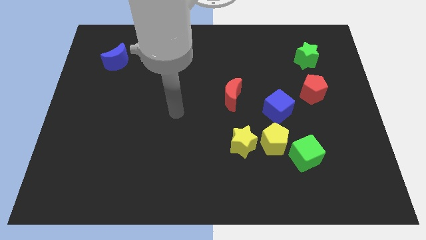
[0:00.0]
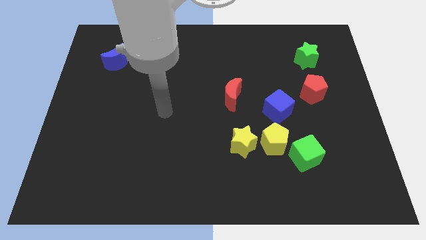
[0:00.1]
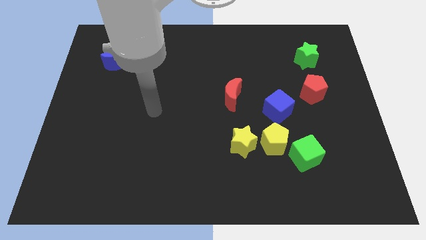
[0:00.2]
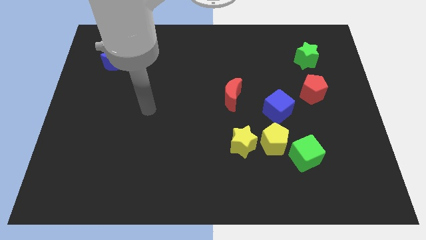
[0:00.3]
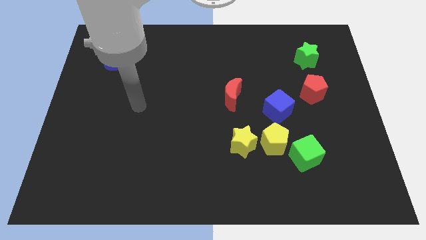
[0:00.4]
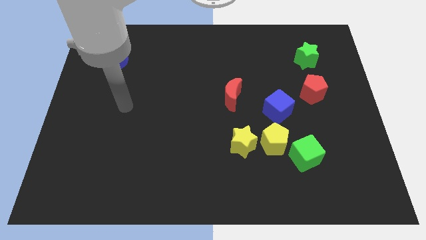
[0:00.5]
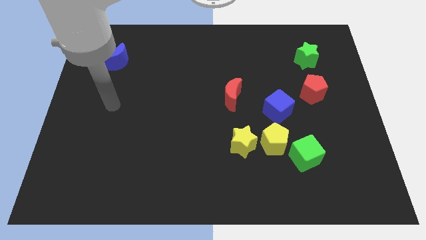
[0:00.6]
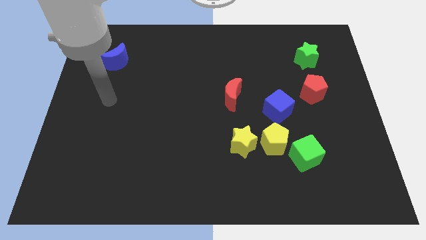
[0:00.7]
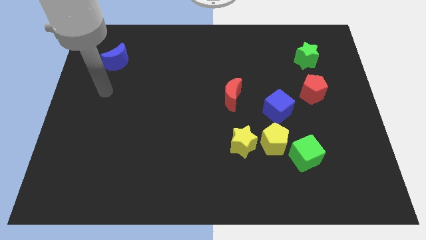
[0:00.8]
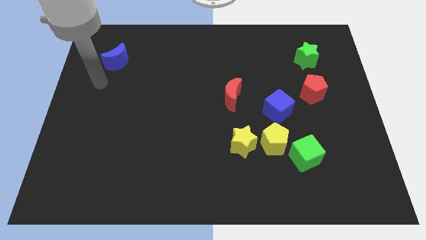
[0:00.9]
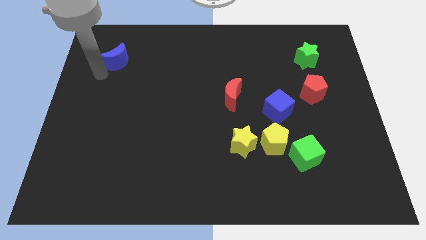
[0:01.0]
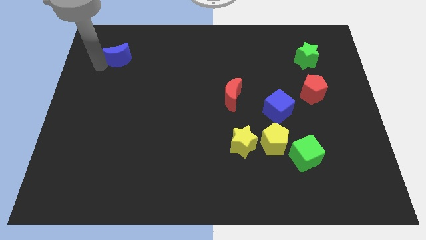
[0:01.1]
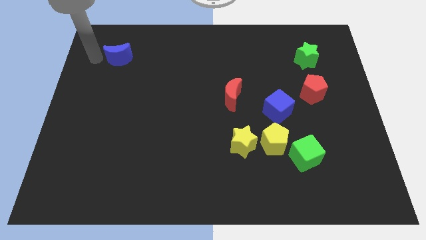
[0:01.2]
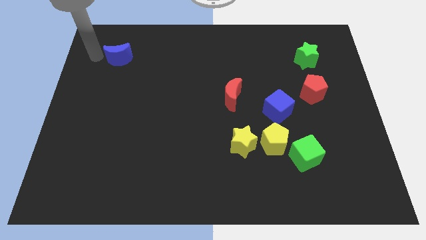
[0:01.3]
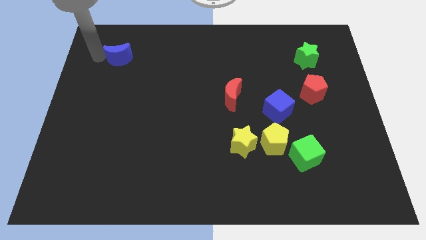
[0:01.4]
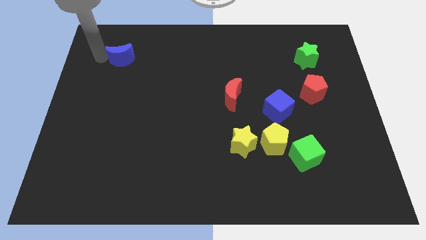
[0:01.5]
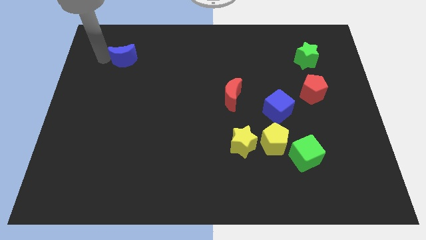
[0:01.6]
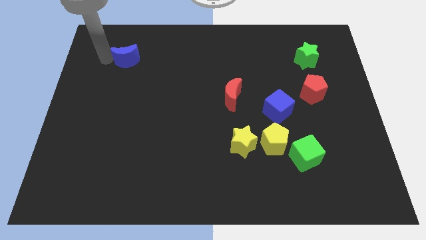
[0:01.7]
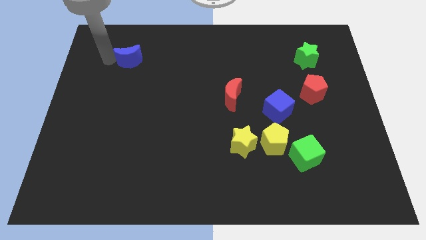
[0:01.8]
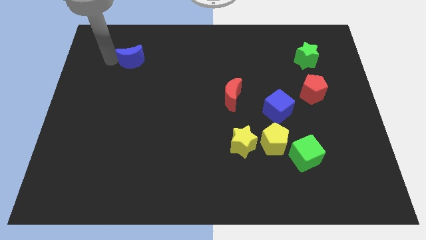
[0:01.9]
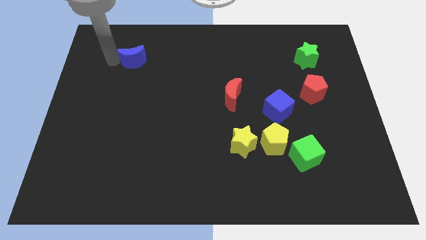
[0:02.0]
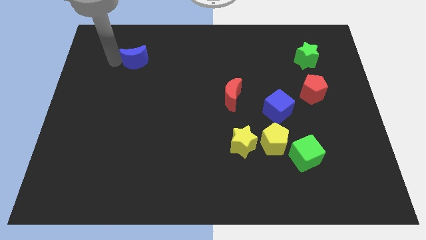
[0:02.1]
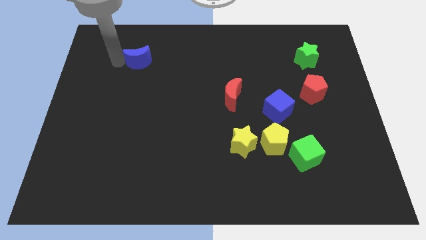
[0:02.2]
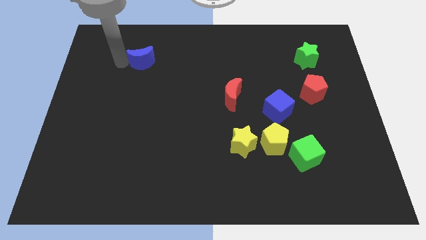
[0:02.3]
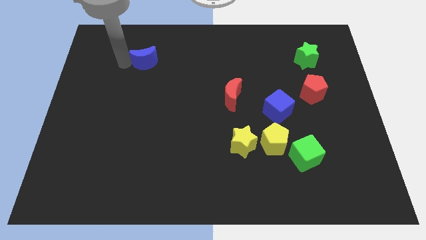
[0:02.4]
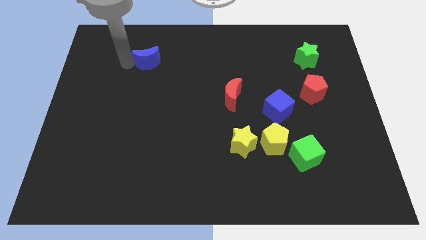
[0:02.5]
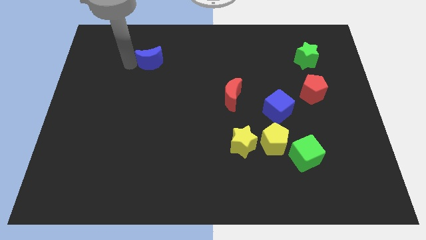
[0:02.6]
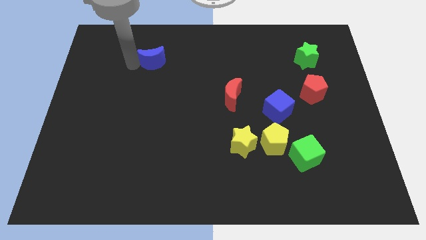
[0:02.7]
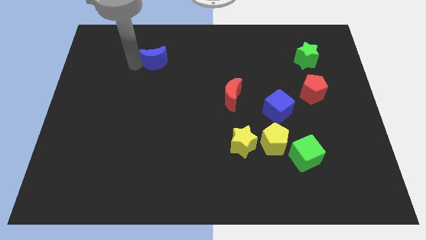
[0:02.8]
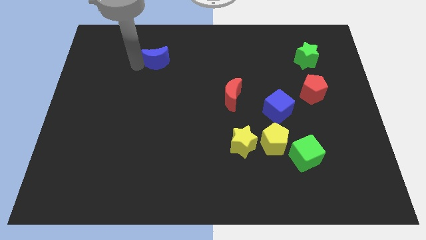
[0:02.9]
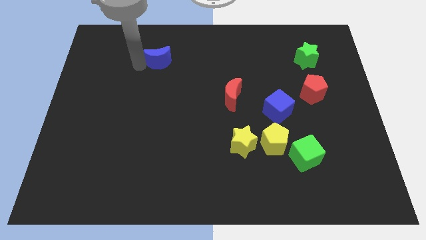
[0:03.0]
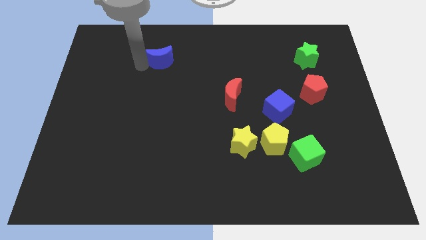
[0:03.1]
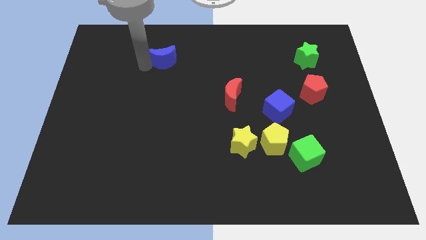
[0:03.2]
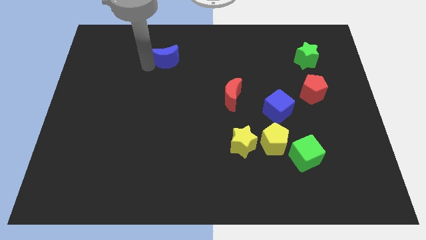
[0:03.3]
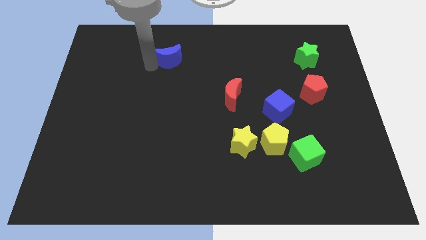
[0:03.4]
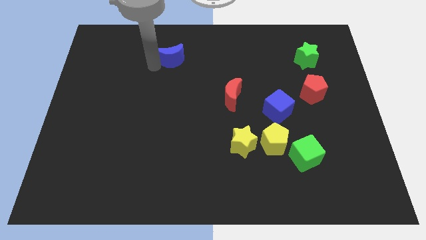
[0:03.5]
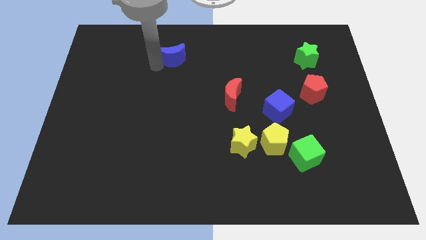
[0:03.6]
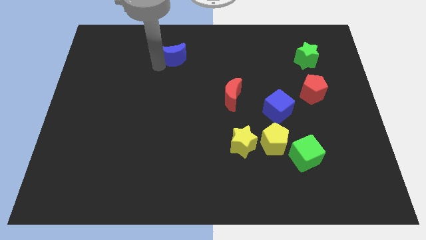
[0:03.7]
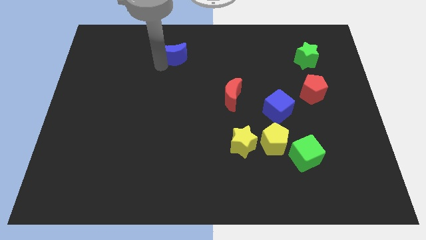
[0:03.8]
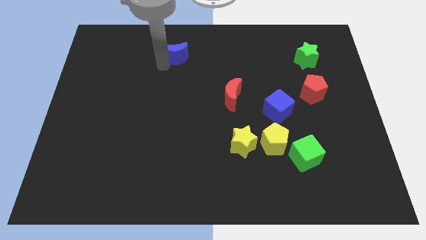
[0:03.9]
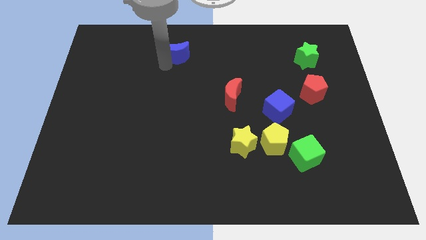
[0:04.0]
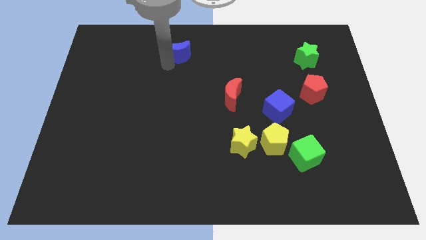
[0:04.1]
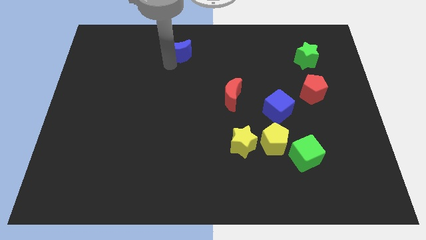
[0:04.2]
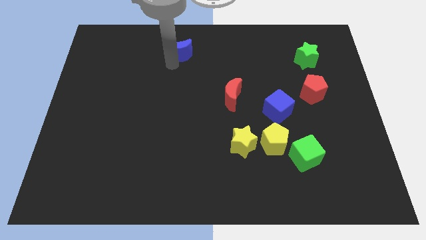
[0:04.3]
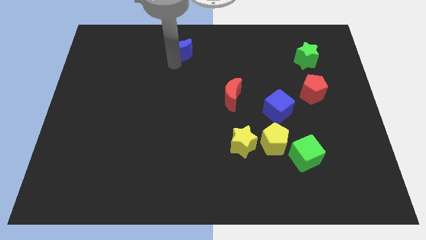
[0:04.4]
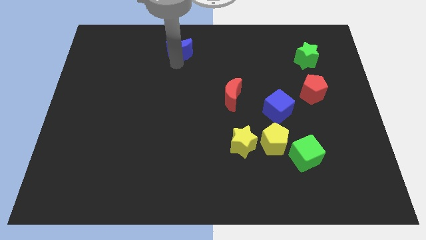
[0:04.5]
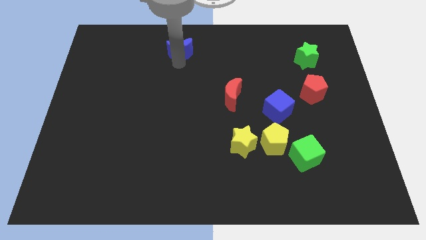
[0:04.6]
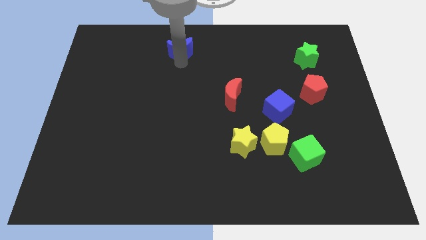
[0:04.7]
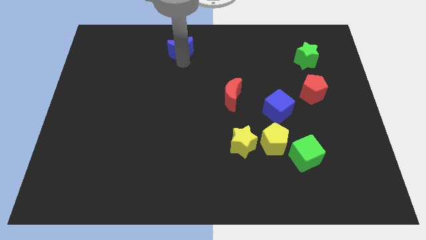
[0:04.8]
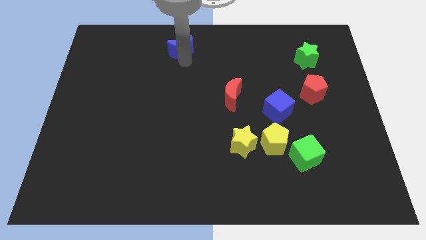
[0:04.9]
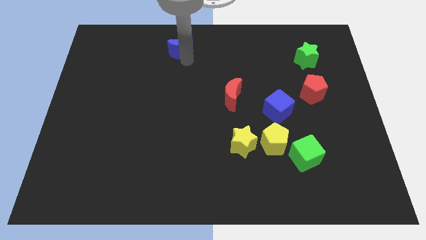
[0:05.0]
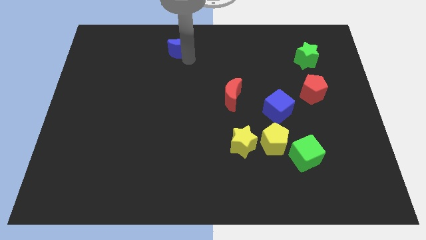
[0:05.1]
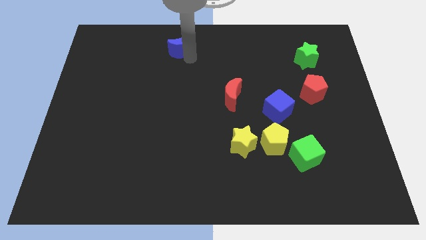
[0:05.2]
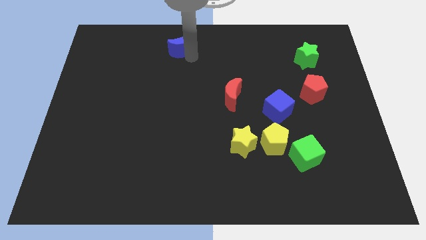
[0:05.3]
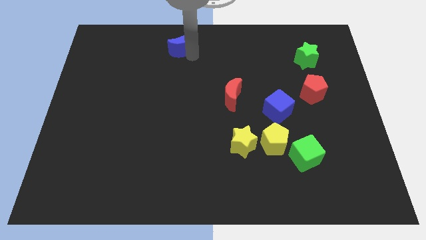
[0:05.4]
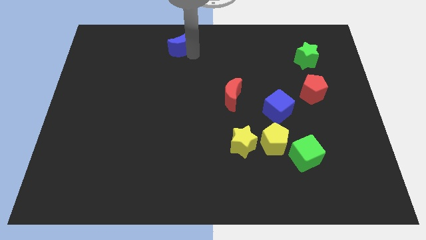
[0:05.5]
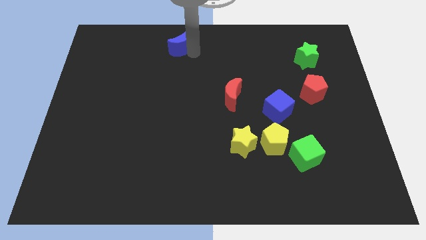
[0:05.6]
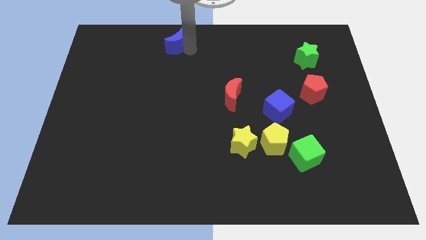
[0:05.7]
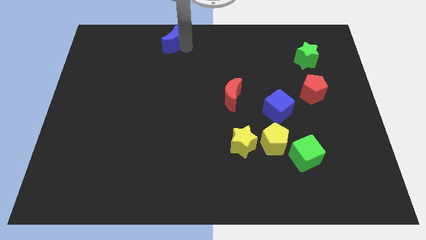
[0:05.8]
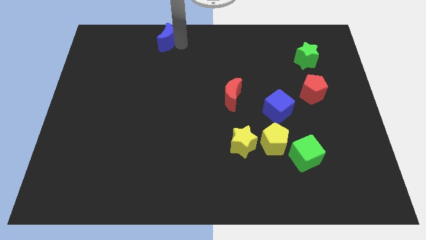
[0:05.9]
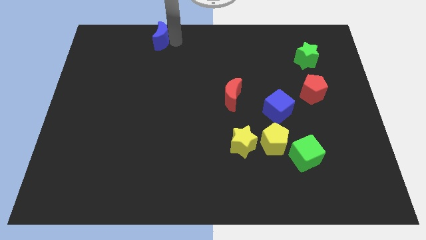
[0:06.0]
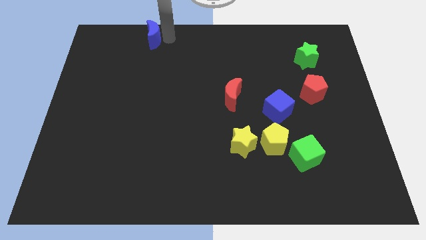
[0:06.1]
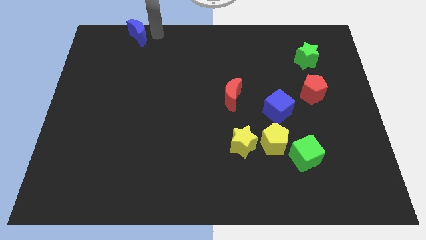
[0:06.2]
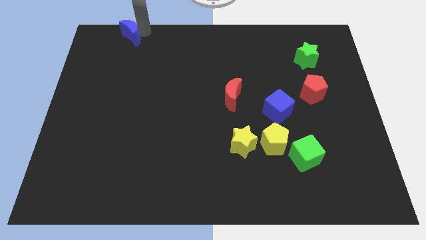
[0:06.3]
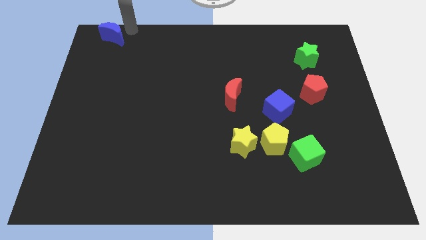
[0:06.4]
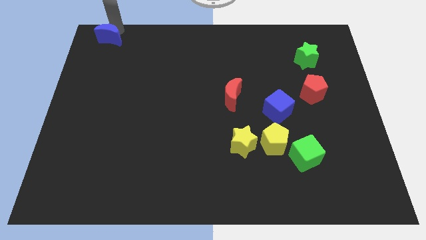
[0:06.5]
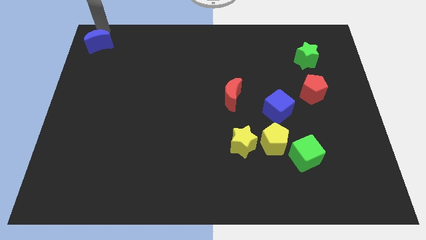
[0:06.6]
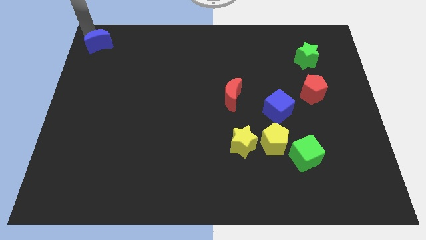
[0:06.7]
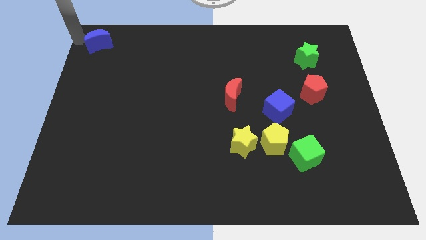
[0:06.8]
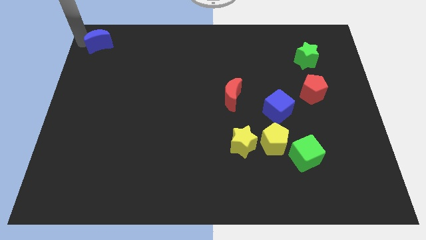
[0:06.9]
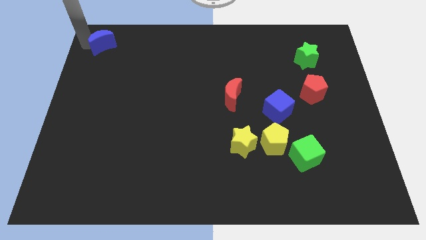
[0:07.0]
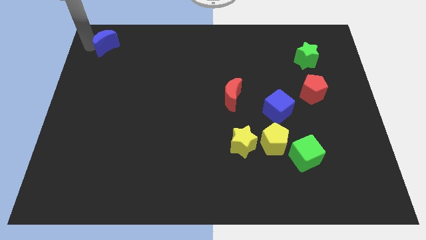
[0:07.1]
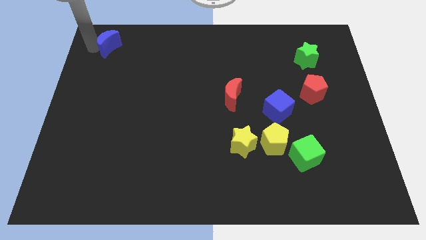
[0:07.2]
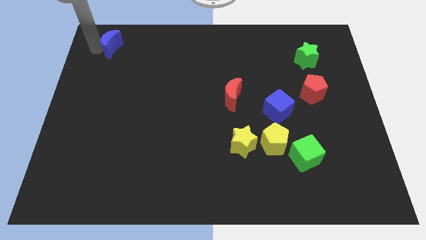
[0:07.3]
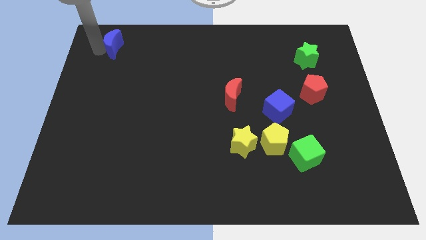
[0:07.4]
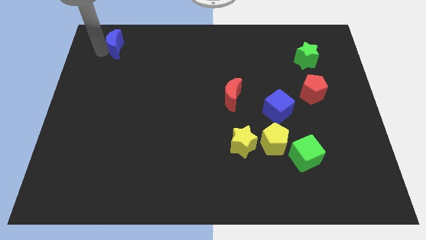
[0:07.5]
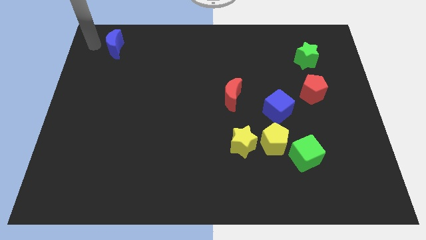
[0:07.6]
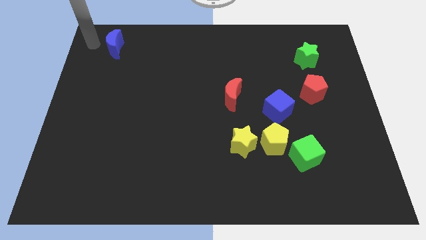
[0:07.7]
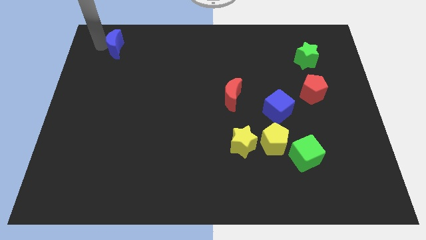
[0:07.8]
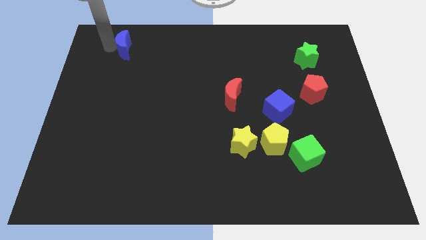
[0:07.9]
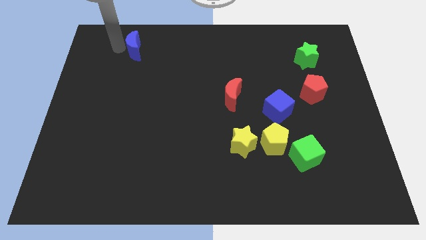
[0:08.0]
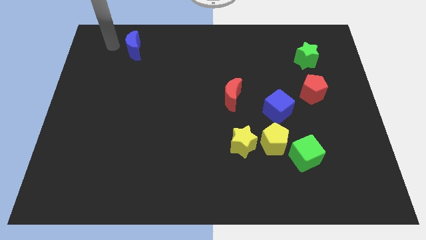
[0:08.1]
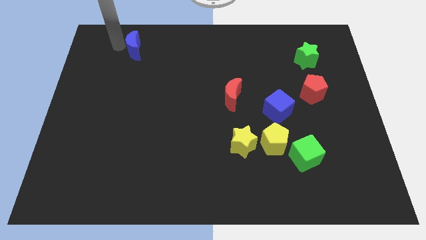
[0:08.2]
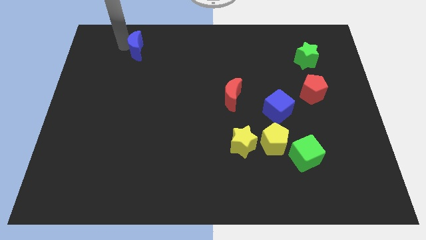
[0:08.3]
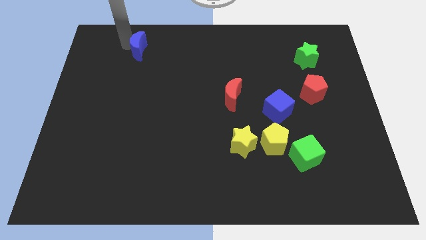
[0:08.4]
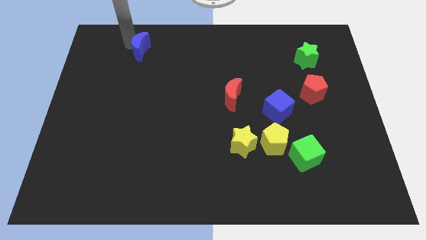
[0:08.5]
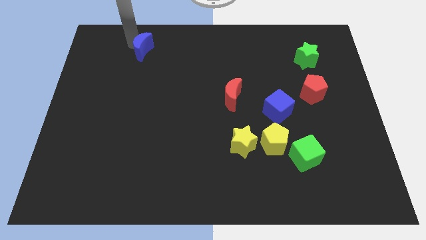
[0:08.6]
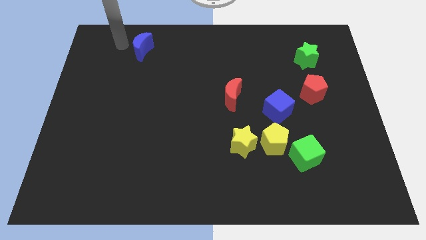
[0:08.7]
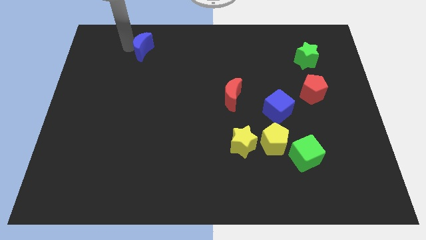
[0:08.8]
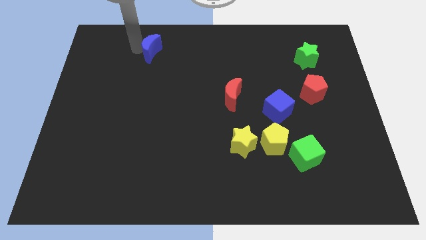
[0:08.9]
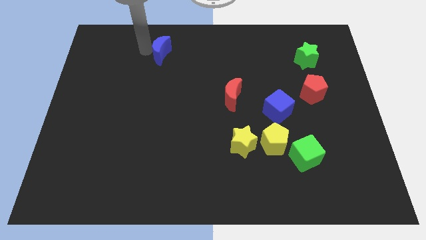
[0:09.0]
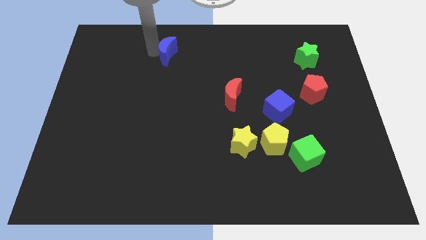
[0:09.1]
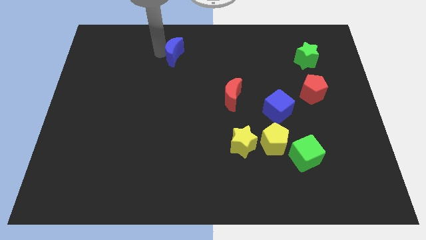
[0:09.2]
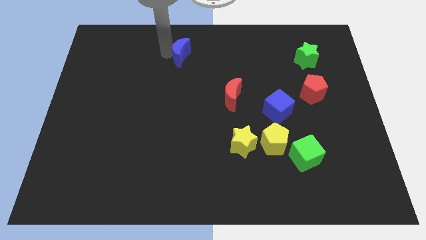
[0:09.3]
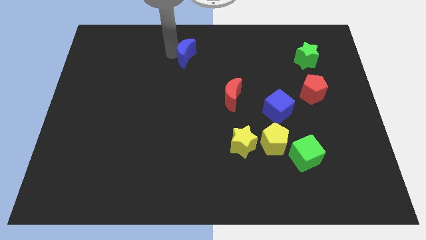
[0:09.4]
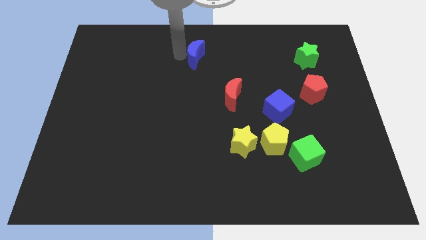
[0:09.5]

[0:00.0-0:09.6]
slide the blue moon to the right
